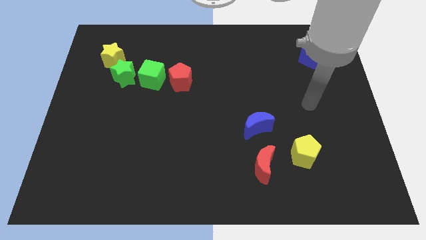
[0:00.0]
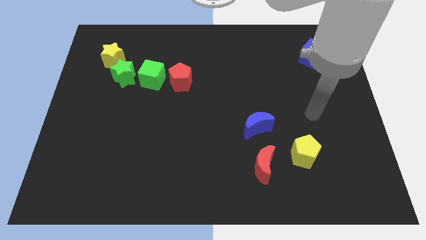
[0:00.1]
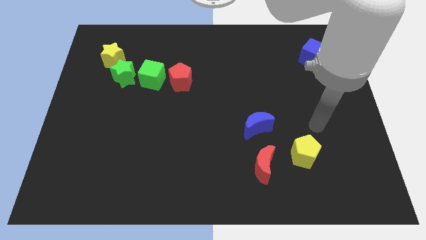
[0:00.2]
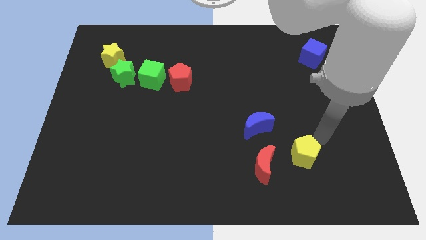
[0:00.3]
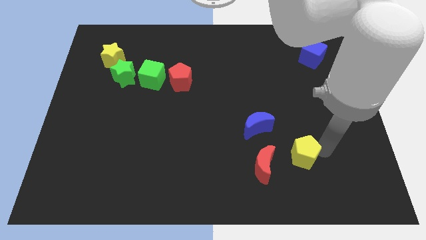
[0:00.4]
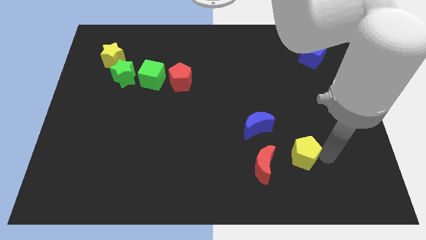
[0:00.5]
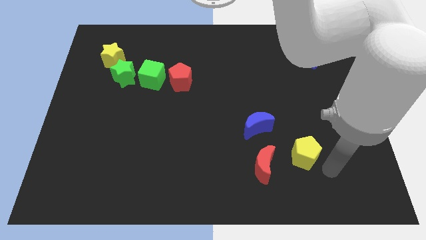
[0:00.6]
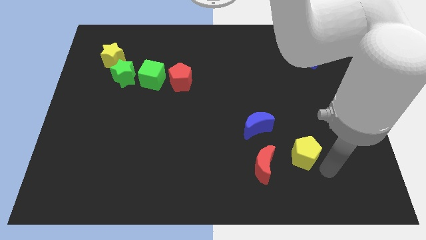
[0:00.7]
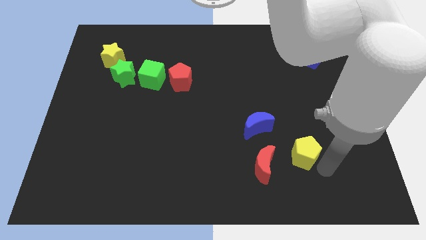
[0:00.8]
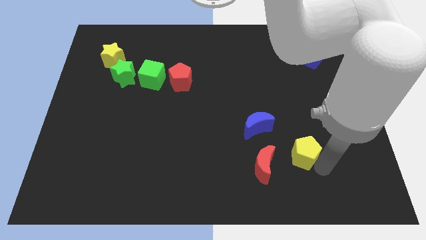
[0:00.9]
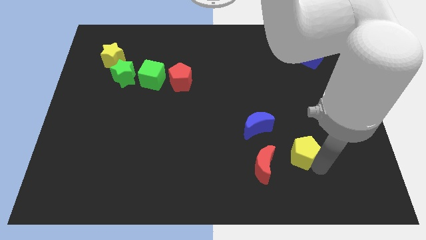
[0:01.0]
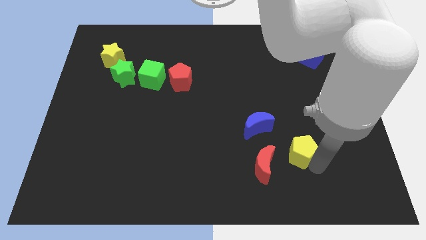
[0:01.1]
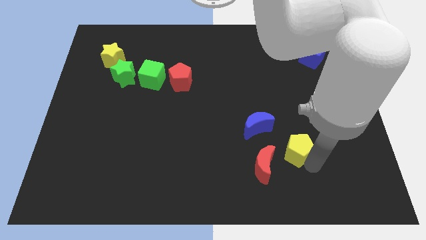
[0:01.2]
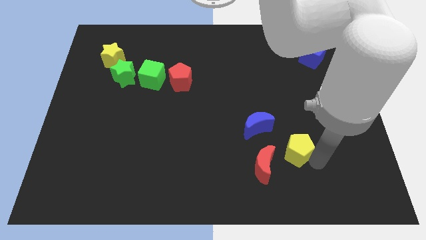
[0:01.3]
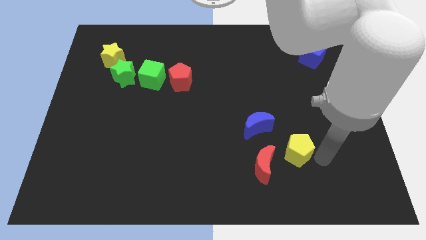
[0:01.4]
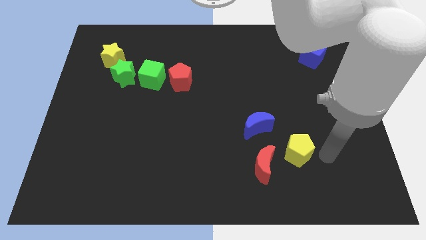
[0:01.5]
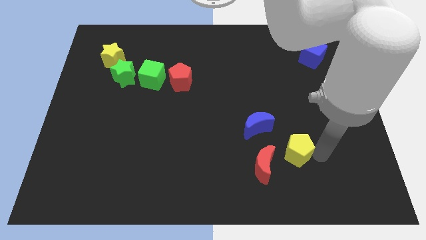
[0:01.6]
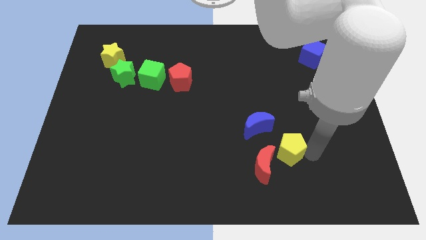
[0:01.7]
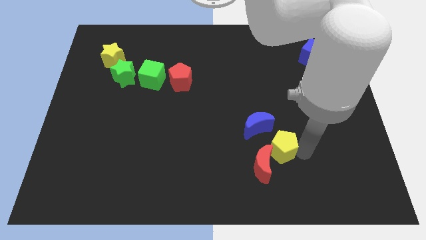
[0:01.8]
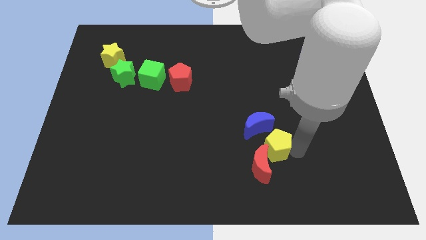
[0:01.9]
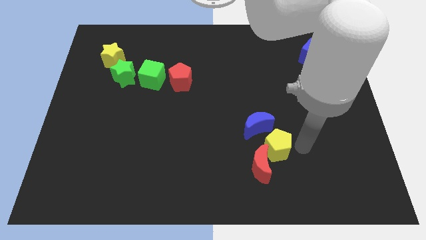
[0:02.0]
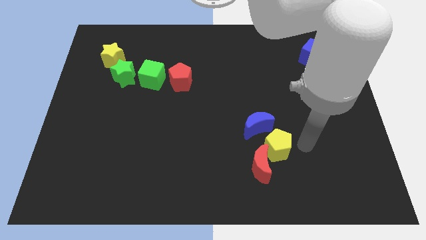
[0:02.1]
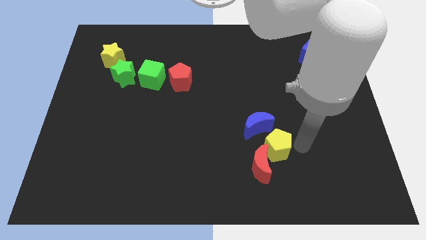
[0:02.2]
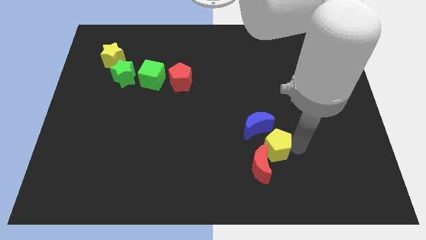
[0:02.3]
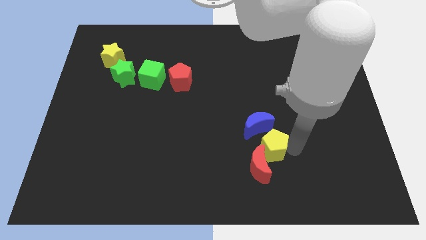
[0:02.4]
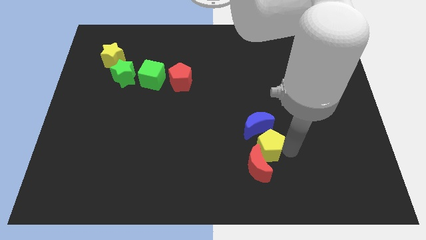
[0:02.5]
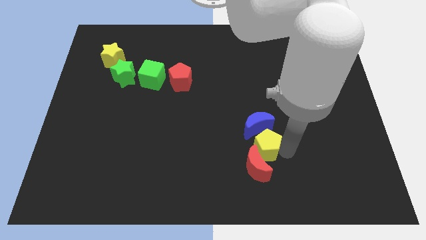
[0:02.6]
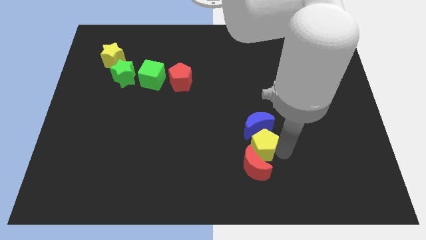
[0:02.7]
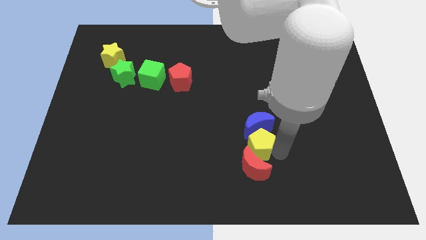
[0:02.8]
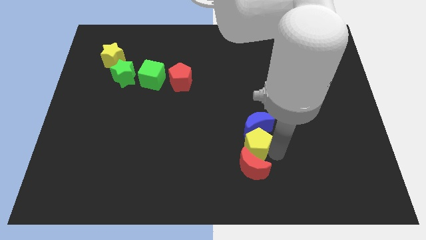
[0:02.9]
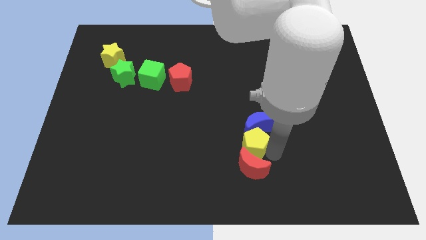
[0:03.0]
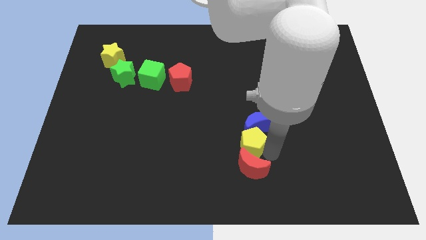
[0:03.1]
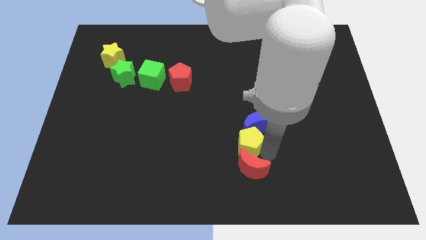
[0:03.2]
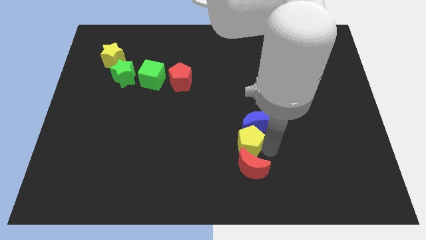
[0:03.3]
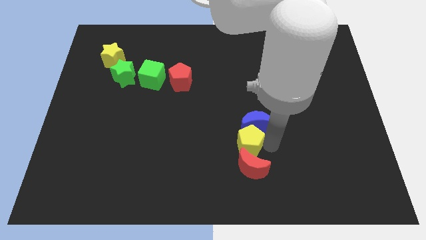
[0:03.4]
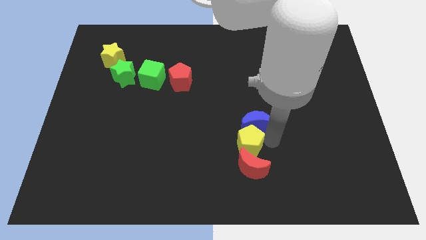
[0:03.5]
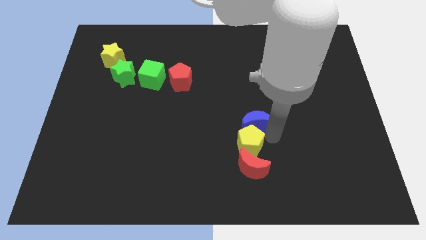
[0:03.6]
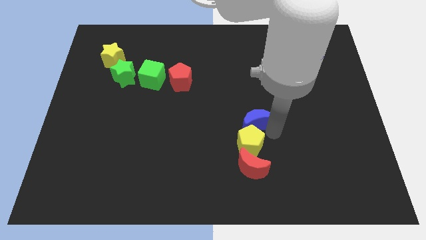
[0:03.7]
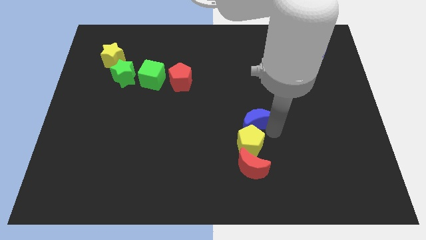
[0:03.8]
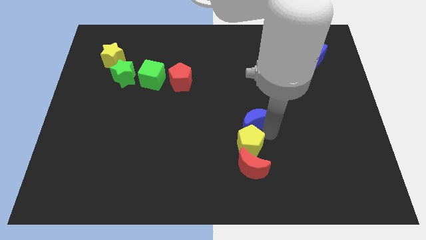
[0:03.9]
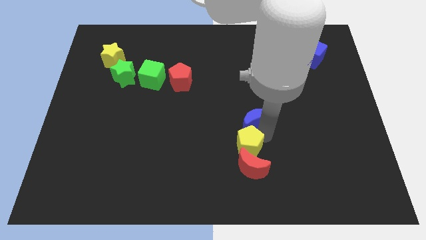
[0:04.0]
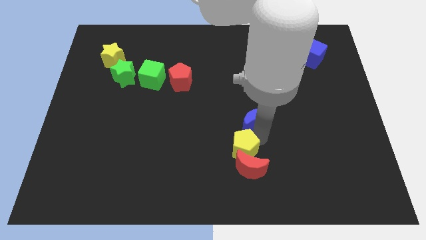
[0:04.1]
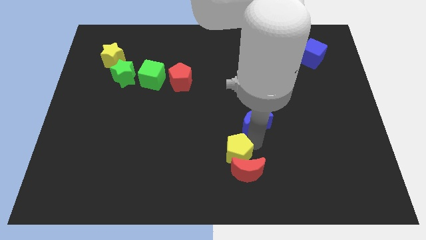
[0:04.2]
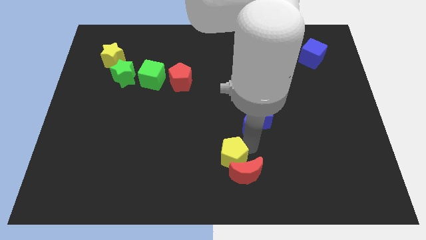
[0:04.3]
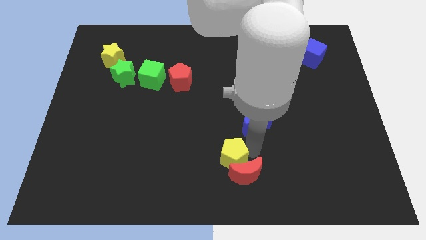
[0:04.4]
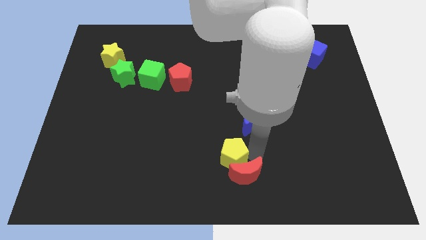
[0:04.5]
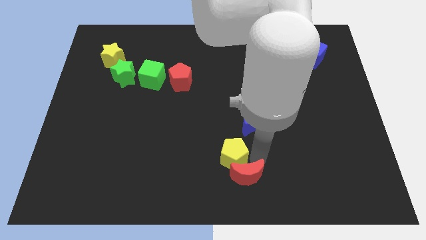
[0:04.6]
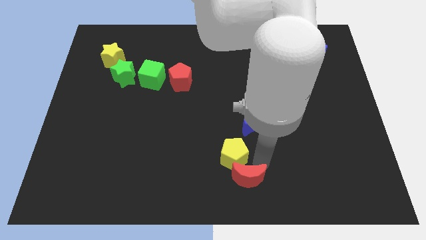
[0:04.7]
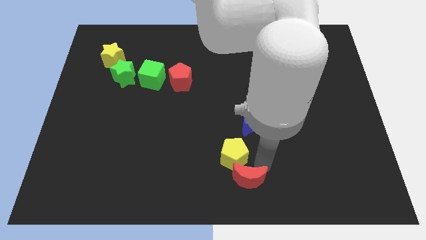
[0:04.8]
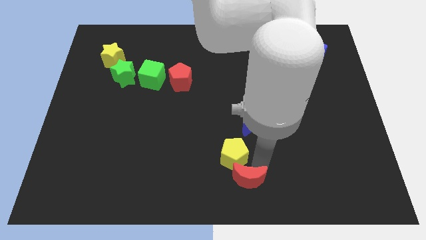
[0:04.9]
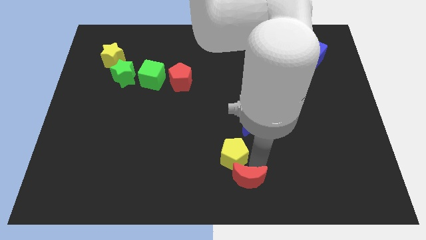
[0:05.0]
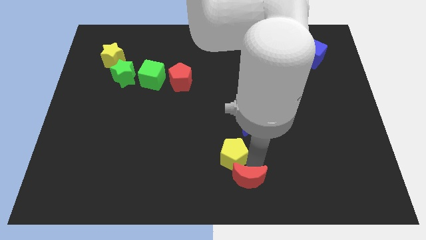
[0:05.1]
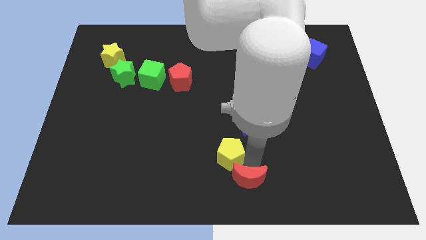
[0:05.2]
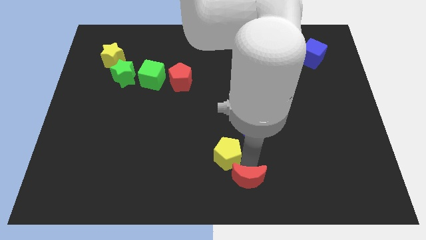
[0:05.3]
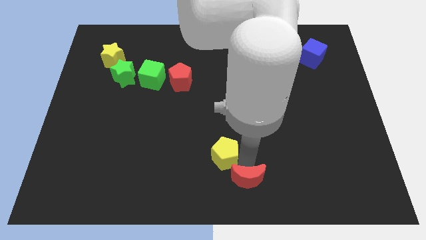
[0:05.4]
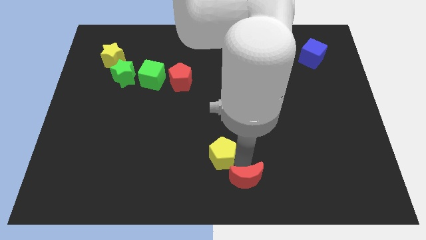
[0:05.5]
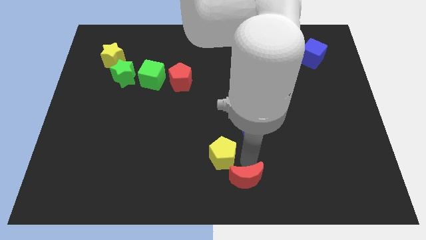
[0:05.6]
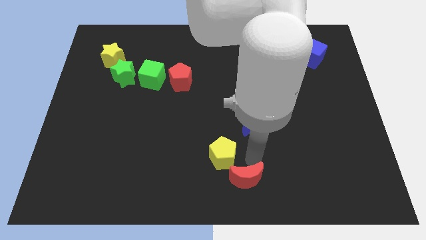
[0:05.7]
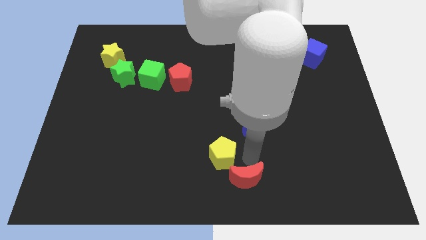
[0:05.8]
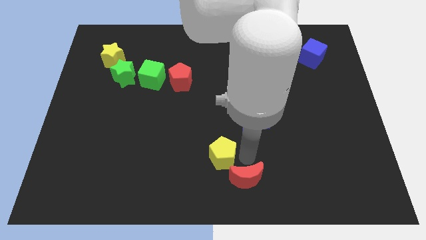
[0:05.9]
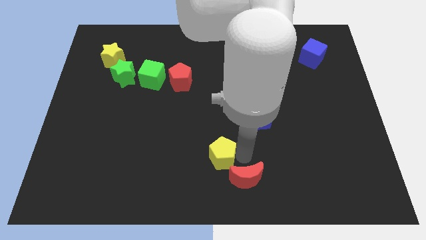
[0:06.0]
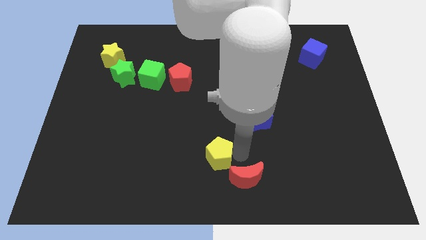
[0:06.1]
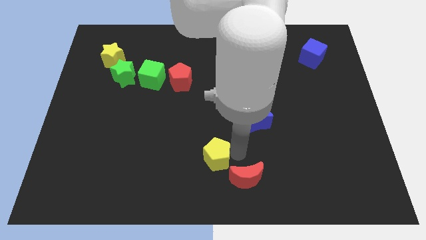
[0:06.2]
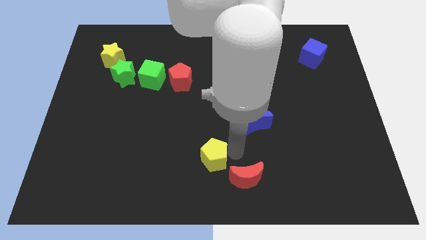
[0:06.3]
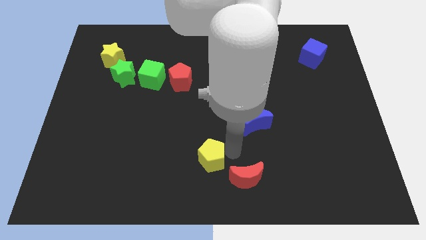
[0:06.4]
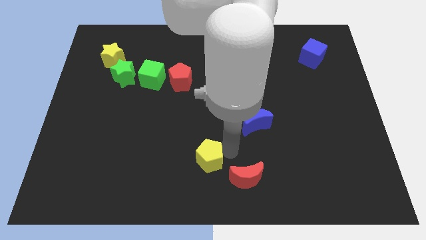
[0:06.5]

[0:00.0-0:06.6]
slide the yellow pentagon to the left

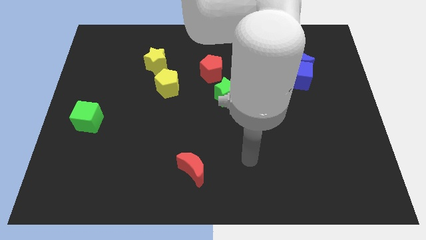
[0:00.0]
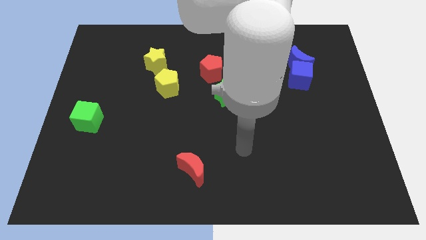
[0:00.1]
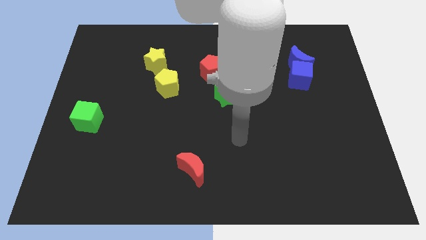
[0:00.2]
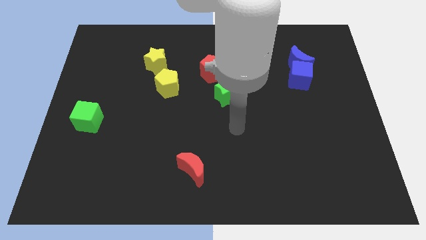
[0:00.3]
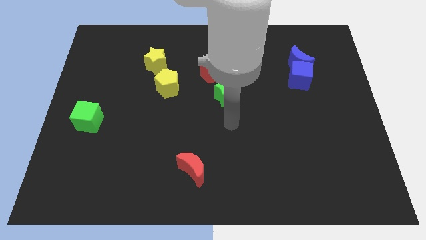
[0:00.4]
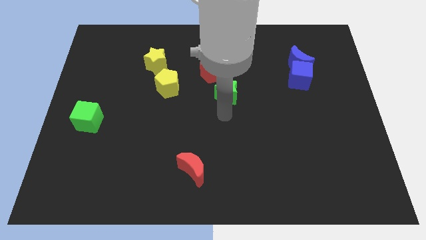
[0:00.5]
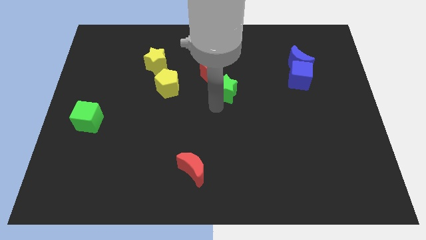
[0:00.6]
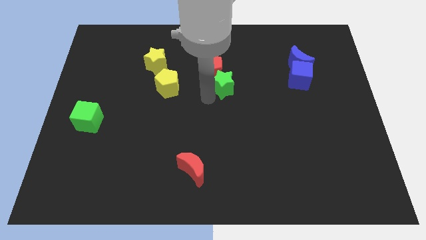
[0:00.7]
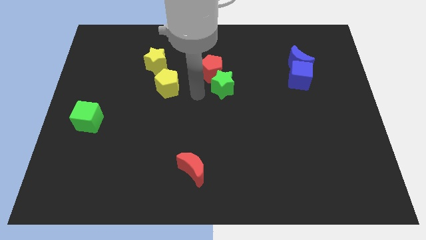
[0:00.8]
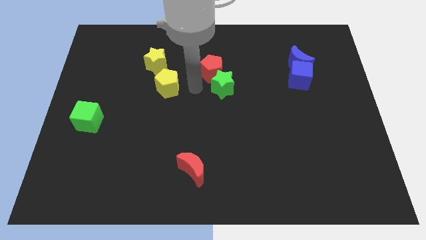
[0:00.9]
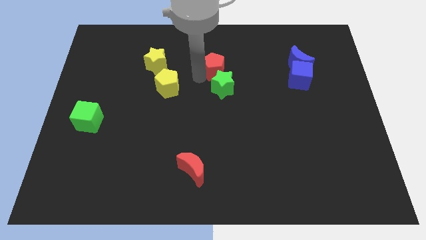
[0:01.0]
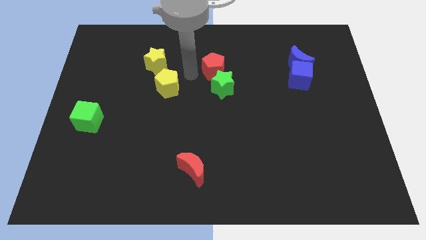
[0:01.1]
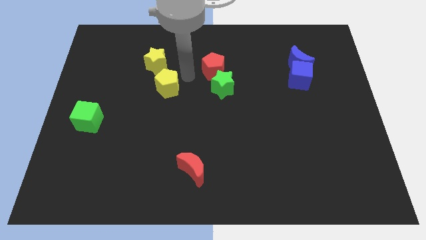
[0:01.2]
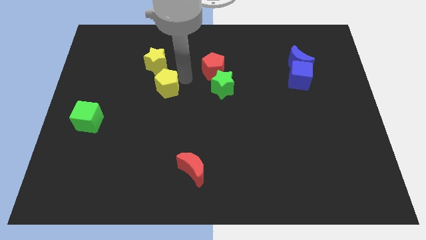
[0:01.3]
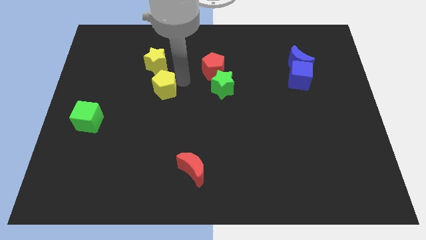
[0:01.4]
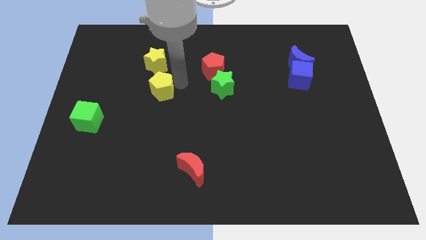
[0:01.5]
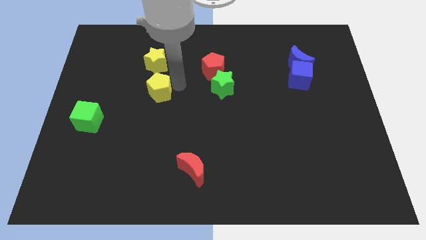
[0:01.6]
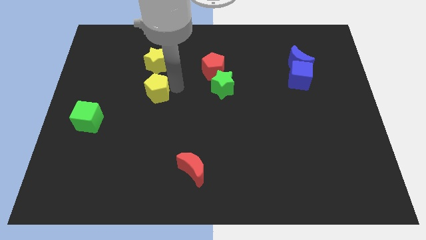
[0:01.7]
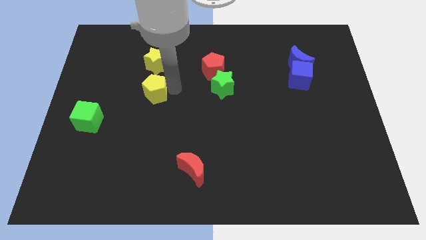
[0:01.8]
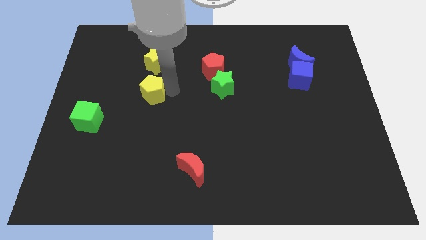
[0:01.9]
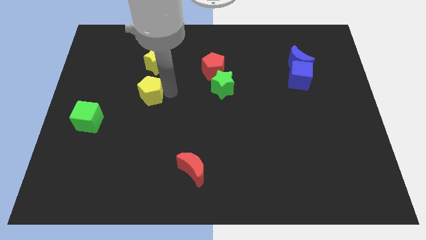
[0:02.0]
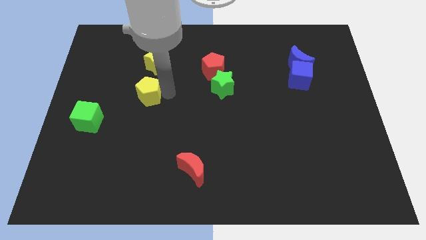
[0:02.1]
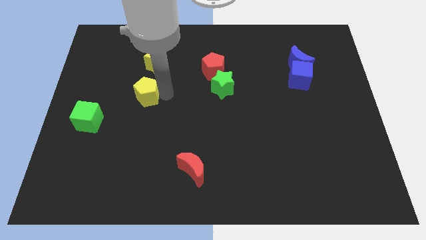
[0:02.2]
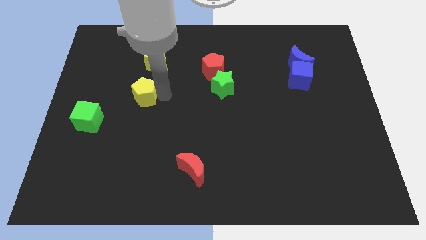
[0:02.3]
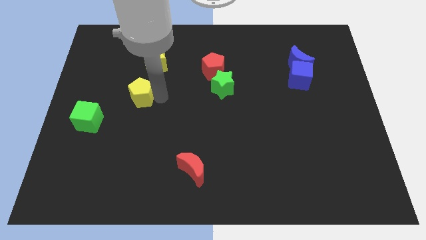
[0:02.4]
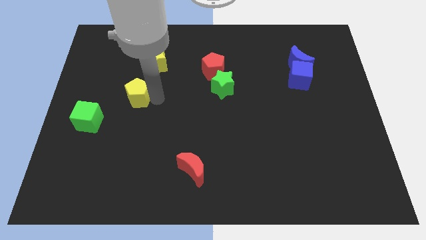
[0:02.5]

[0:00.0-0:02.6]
move the yellow pentagon a little diagonally down and left
